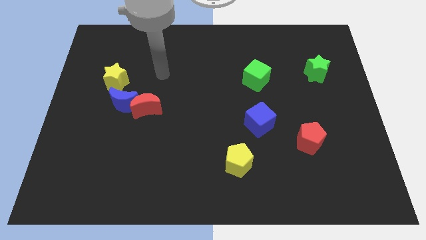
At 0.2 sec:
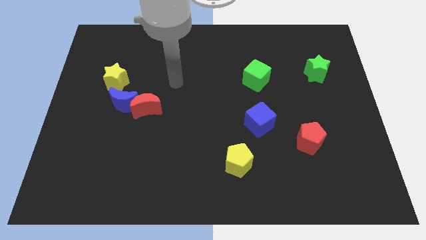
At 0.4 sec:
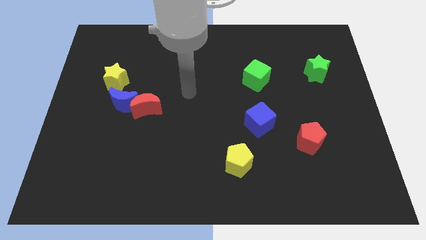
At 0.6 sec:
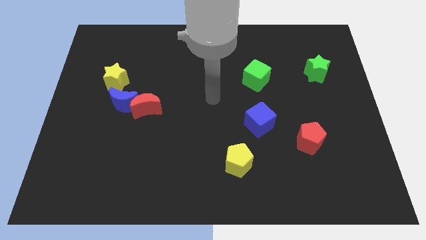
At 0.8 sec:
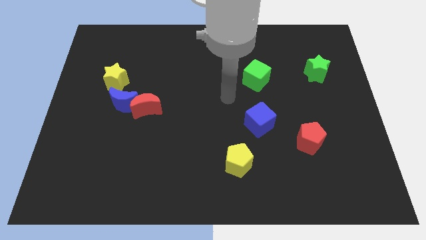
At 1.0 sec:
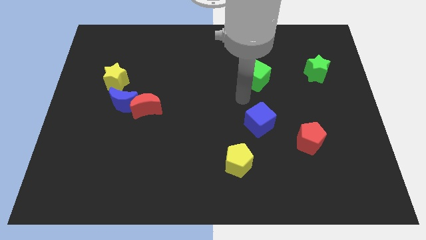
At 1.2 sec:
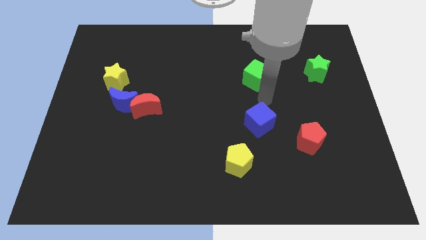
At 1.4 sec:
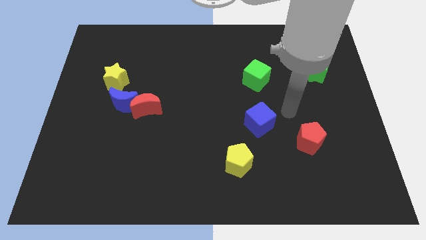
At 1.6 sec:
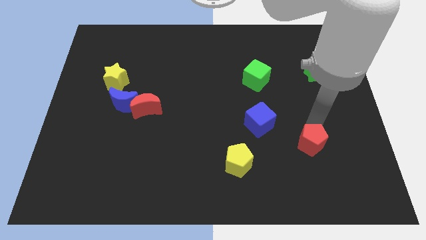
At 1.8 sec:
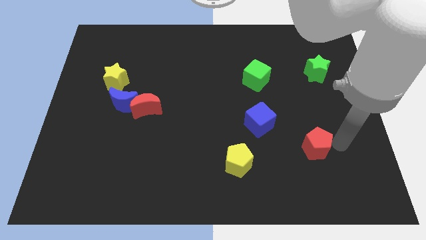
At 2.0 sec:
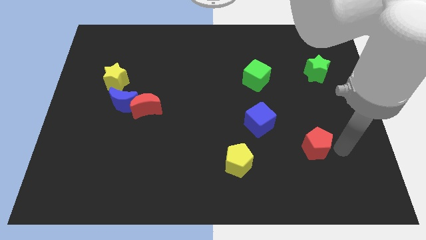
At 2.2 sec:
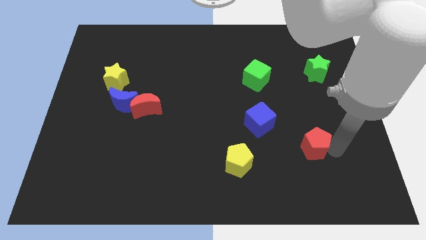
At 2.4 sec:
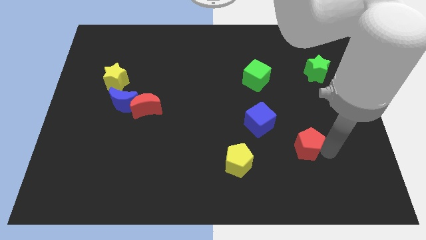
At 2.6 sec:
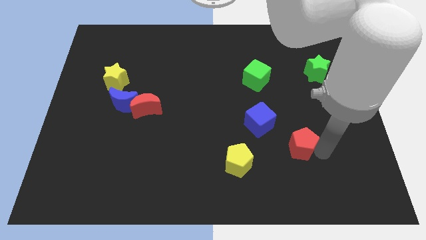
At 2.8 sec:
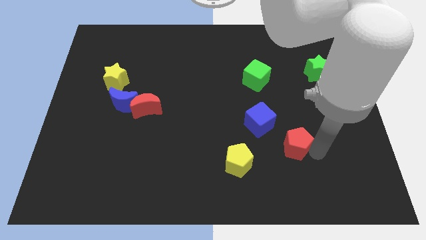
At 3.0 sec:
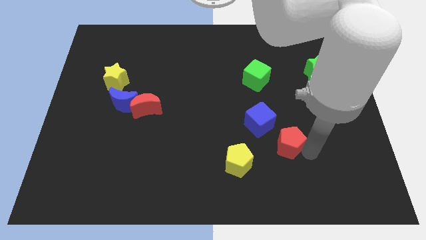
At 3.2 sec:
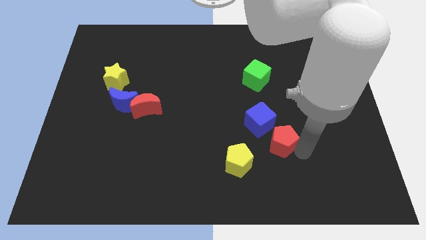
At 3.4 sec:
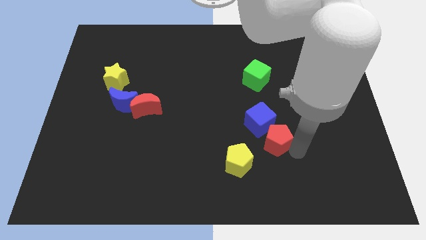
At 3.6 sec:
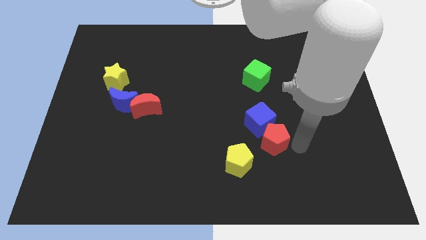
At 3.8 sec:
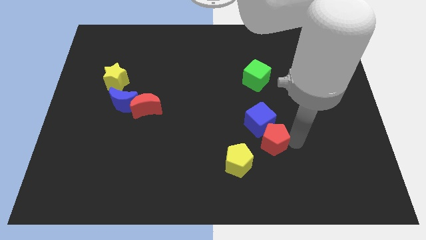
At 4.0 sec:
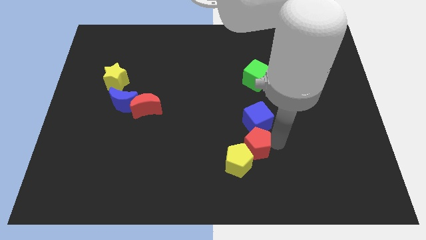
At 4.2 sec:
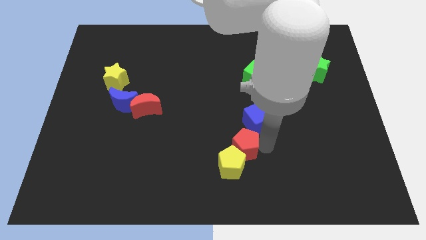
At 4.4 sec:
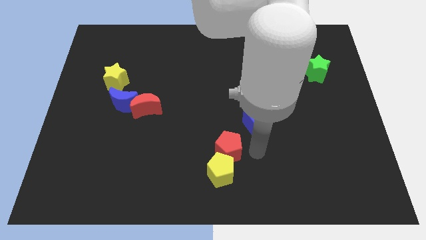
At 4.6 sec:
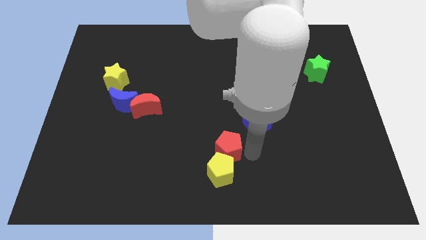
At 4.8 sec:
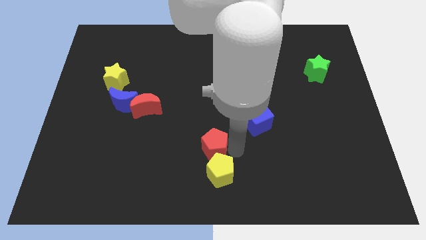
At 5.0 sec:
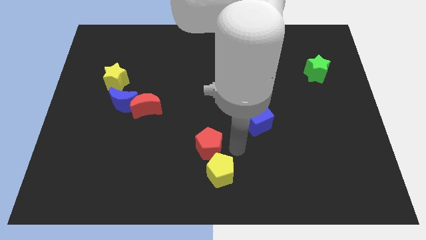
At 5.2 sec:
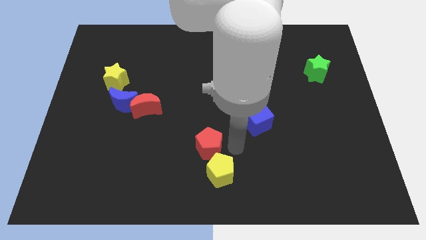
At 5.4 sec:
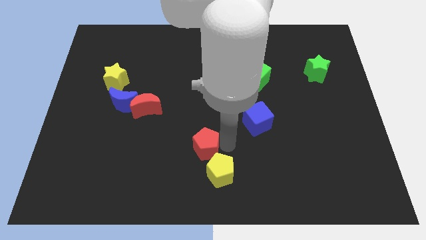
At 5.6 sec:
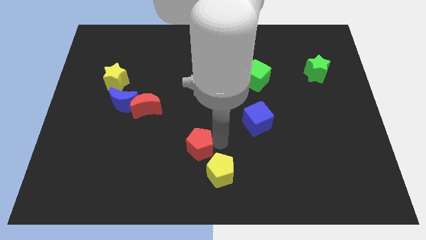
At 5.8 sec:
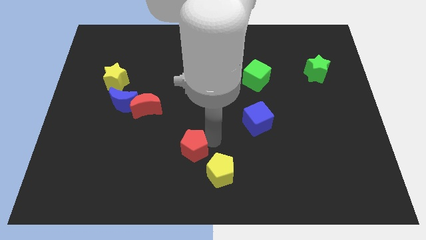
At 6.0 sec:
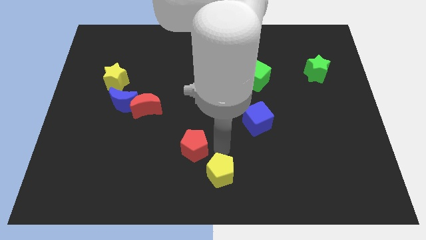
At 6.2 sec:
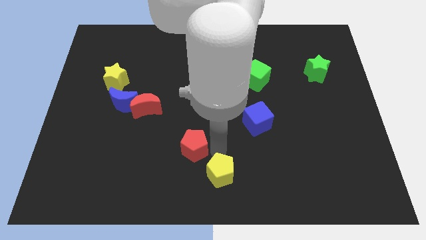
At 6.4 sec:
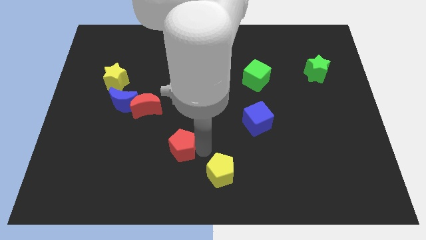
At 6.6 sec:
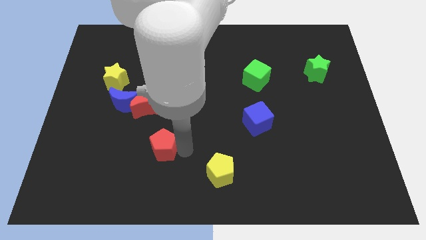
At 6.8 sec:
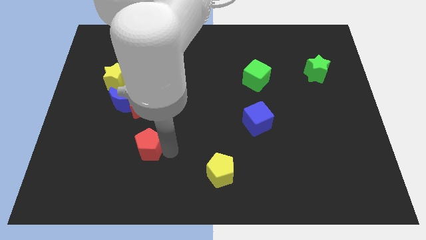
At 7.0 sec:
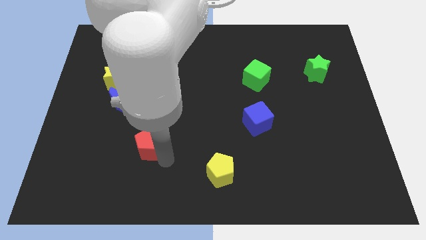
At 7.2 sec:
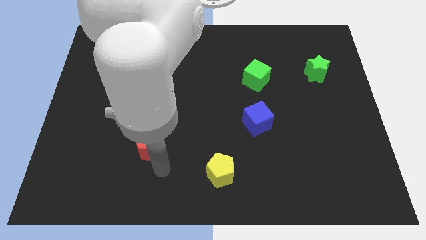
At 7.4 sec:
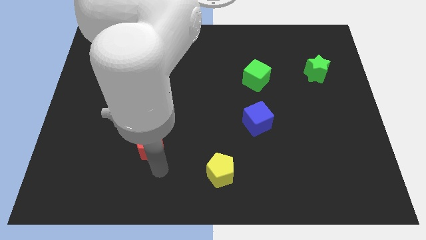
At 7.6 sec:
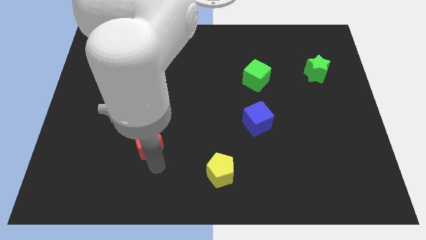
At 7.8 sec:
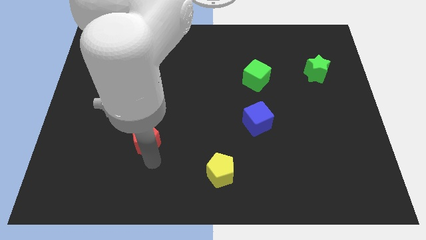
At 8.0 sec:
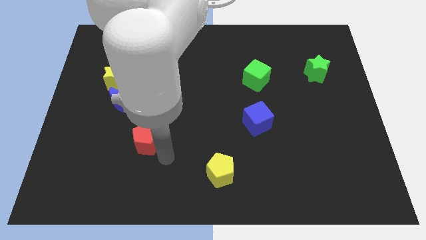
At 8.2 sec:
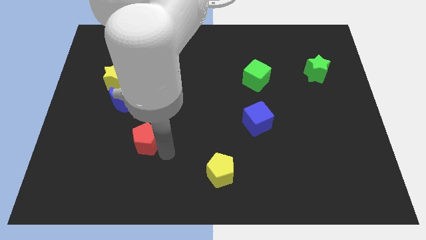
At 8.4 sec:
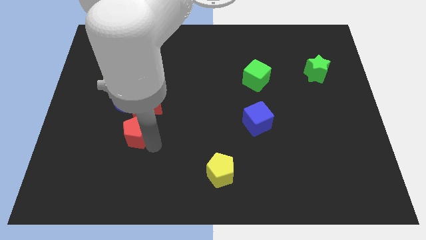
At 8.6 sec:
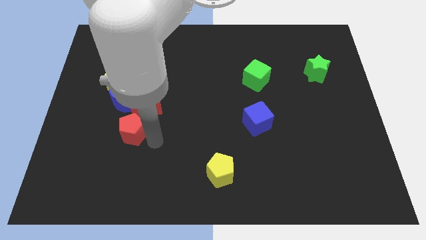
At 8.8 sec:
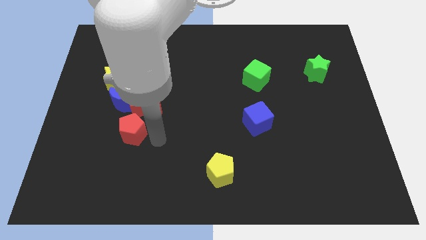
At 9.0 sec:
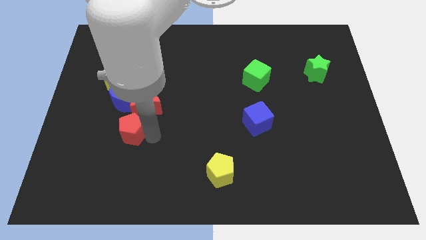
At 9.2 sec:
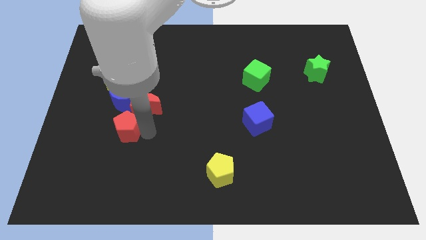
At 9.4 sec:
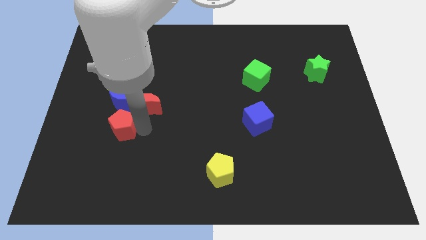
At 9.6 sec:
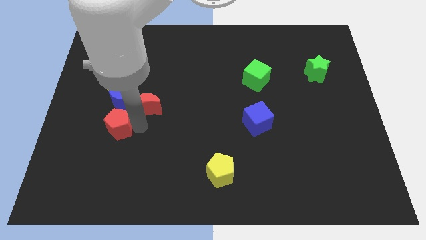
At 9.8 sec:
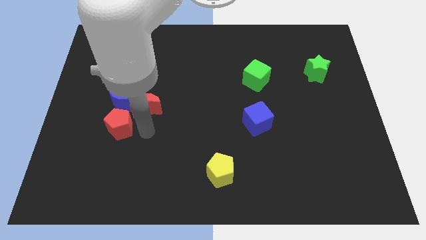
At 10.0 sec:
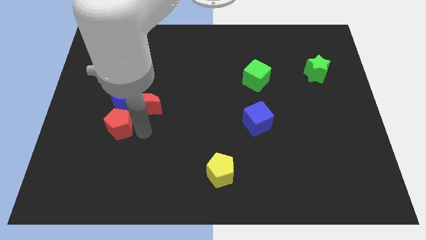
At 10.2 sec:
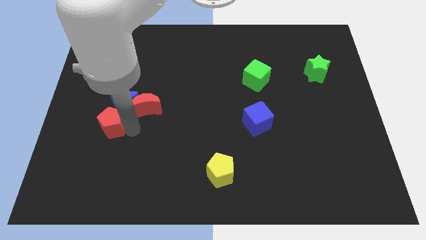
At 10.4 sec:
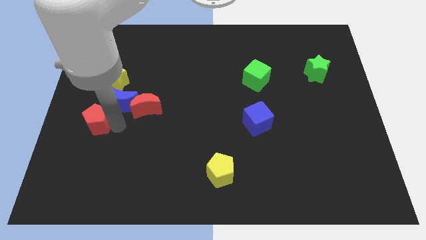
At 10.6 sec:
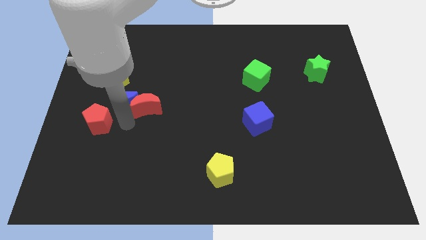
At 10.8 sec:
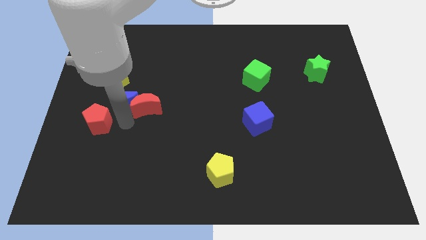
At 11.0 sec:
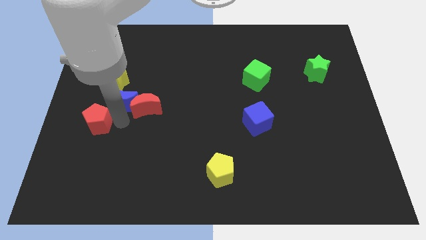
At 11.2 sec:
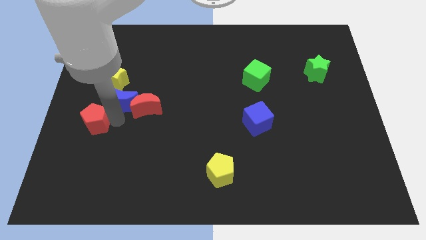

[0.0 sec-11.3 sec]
move the red pentagon to the center left
